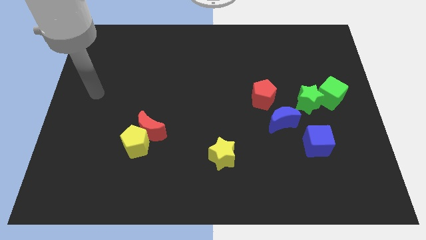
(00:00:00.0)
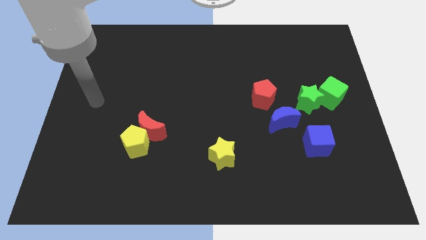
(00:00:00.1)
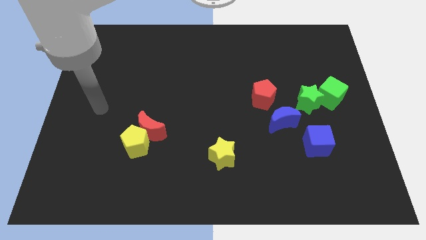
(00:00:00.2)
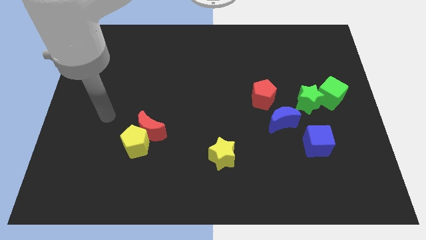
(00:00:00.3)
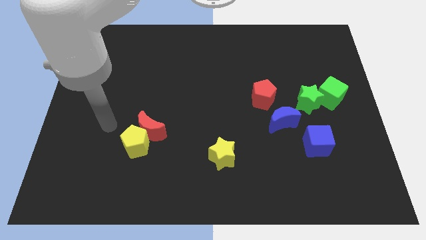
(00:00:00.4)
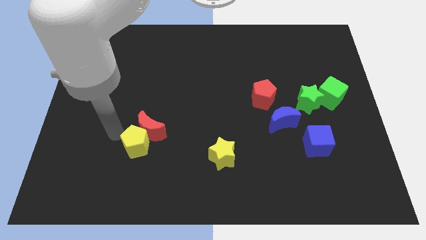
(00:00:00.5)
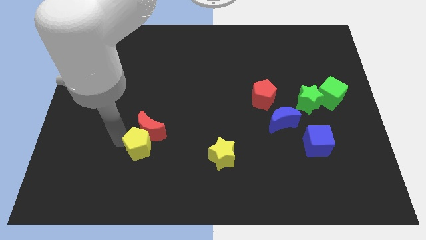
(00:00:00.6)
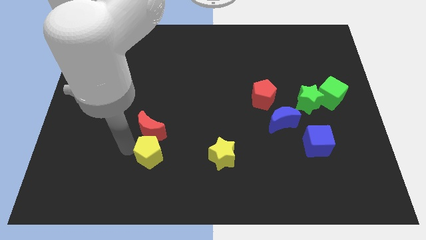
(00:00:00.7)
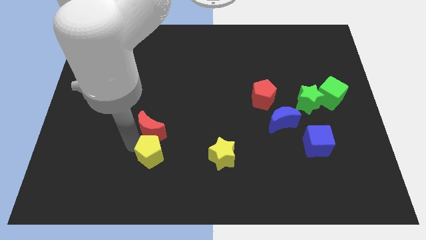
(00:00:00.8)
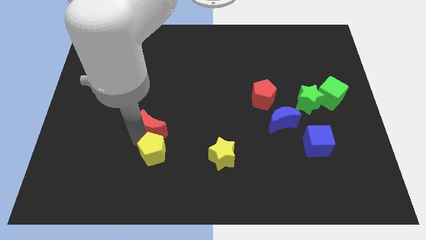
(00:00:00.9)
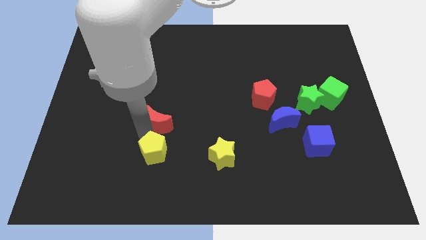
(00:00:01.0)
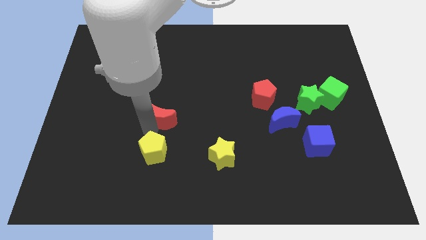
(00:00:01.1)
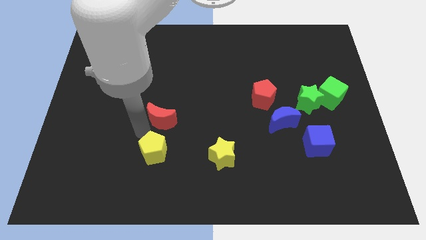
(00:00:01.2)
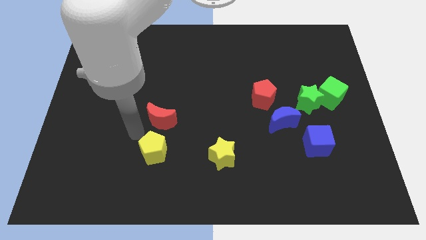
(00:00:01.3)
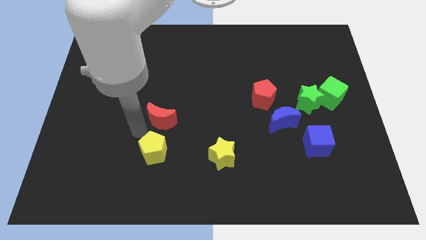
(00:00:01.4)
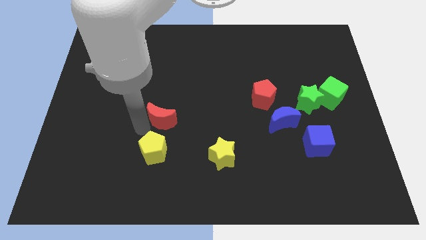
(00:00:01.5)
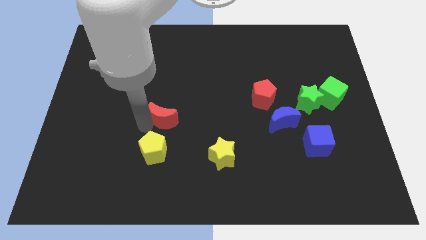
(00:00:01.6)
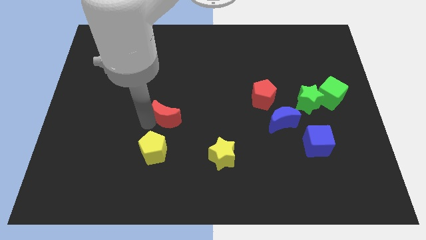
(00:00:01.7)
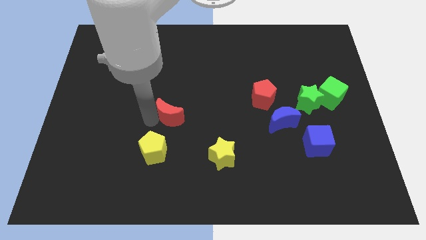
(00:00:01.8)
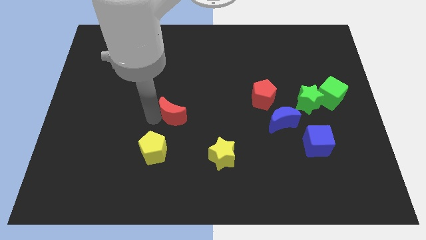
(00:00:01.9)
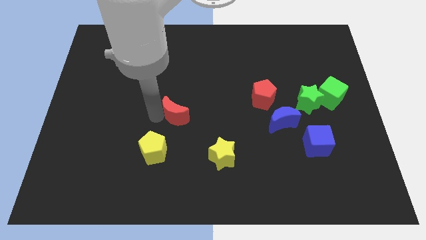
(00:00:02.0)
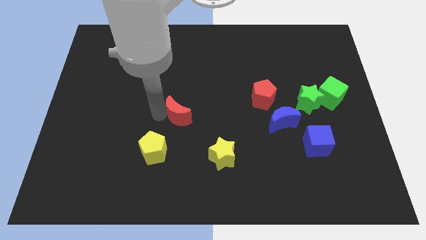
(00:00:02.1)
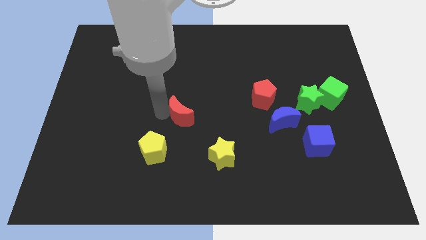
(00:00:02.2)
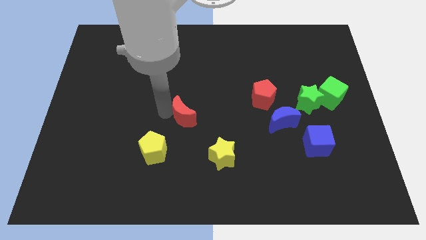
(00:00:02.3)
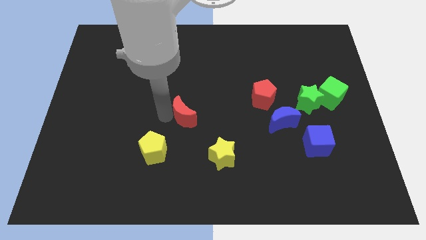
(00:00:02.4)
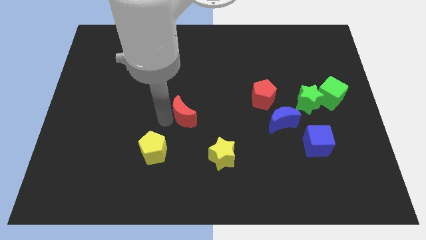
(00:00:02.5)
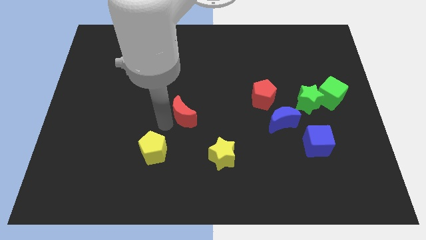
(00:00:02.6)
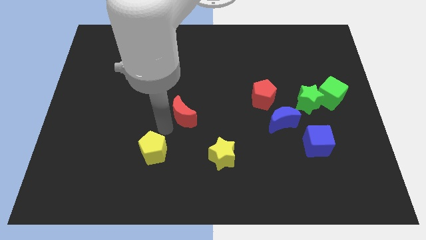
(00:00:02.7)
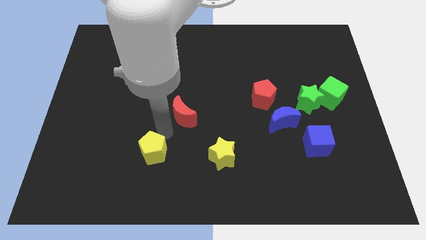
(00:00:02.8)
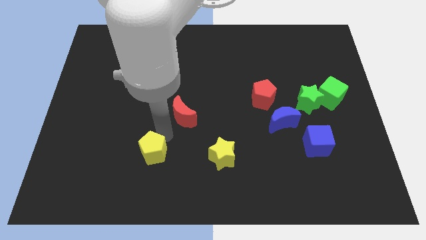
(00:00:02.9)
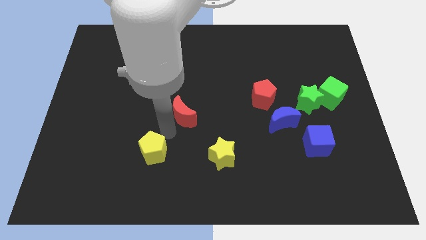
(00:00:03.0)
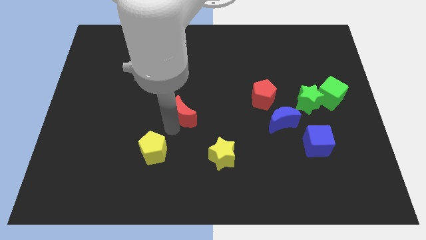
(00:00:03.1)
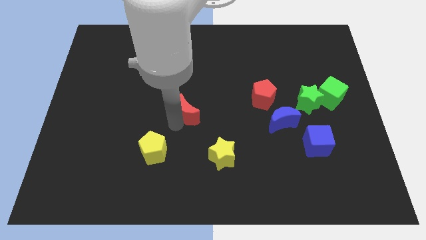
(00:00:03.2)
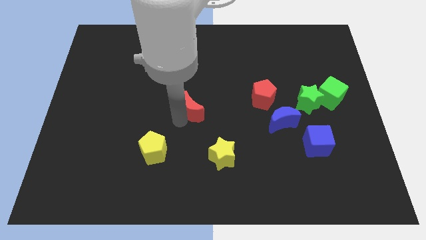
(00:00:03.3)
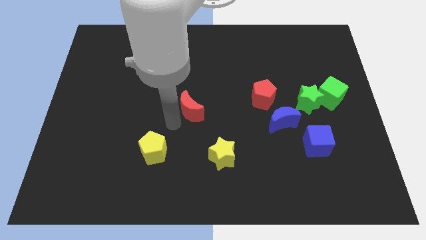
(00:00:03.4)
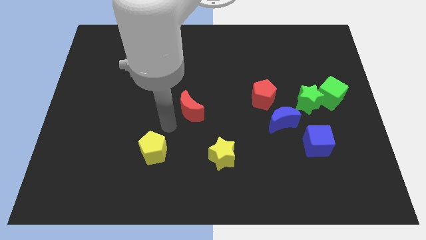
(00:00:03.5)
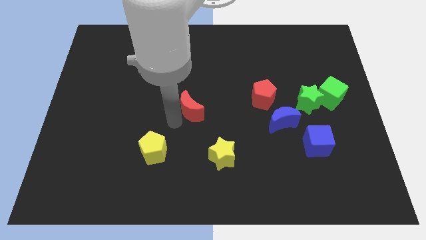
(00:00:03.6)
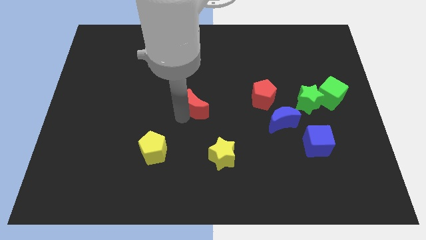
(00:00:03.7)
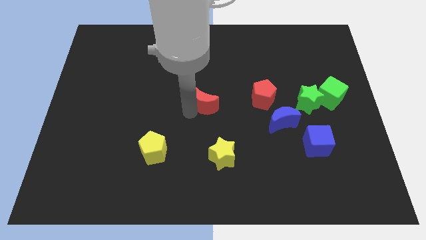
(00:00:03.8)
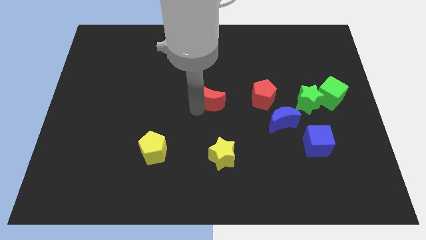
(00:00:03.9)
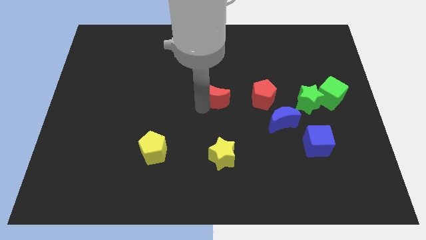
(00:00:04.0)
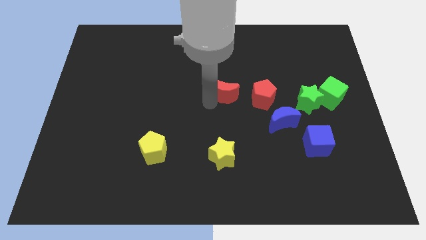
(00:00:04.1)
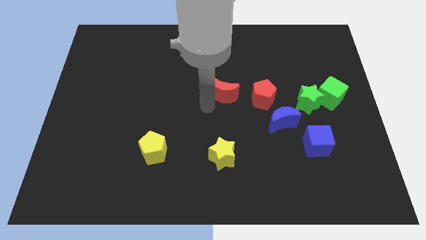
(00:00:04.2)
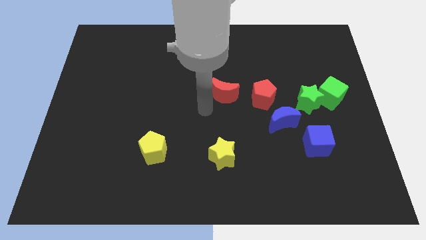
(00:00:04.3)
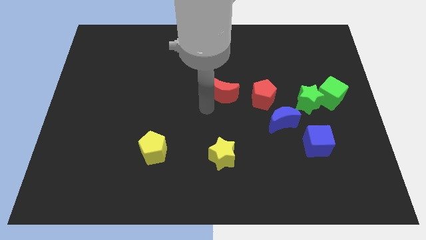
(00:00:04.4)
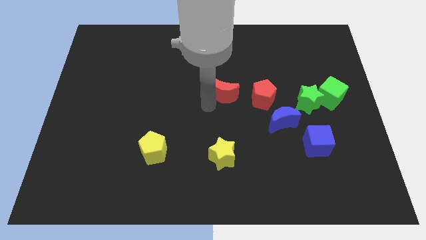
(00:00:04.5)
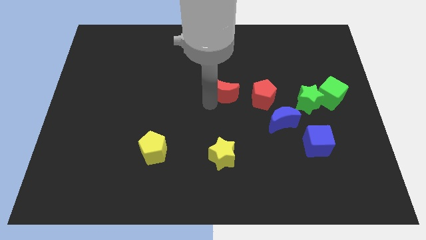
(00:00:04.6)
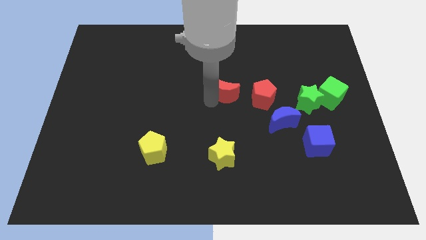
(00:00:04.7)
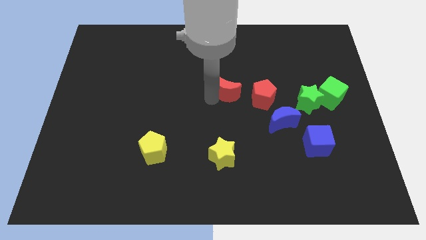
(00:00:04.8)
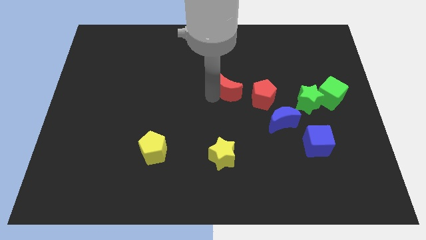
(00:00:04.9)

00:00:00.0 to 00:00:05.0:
slide the red moon diagonally up and to the left of the red pentagon

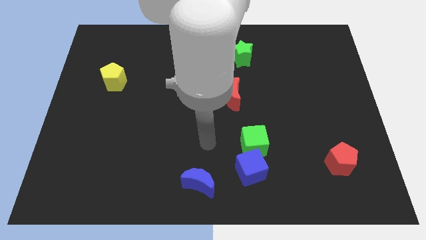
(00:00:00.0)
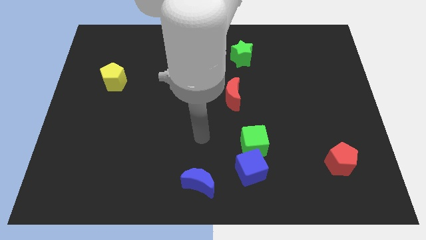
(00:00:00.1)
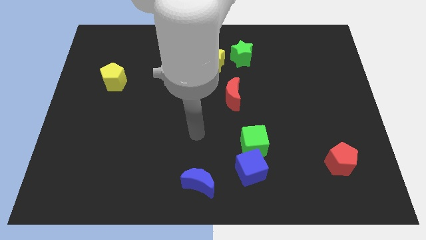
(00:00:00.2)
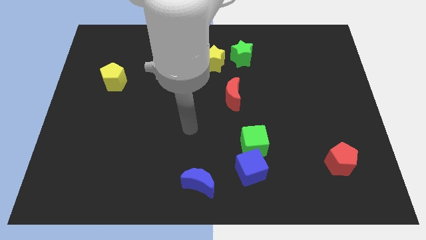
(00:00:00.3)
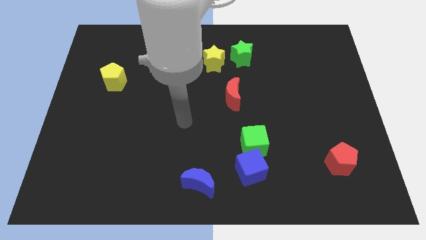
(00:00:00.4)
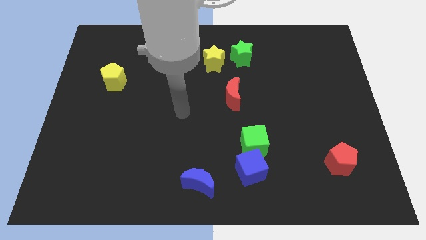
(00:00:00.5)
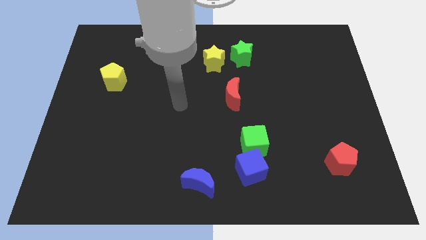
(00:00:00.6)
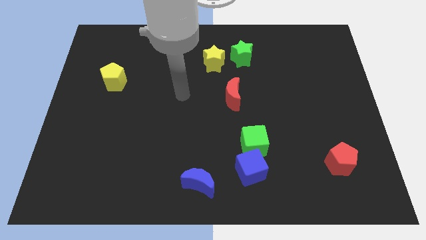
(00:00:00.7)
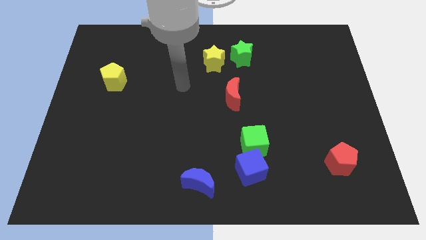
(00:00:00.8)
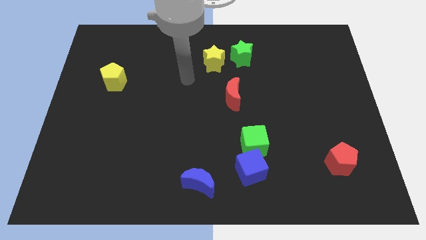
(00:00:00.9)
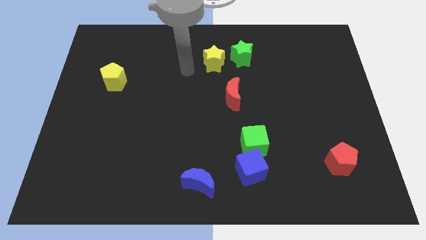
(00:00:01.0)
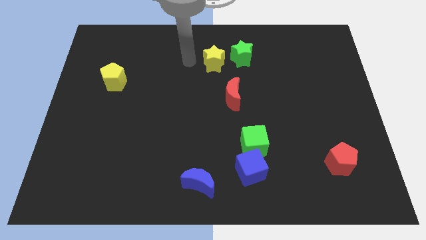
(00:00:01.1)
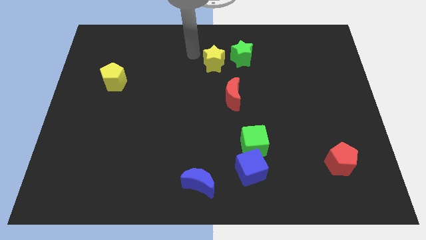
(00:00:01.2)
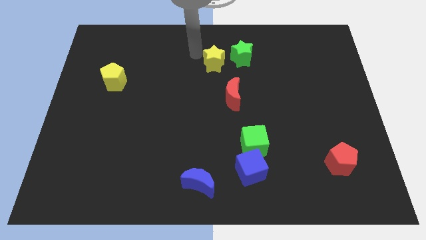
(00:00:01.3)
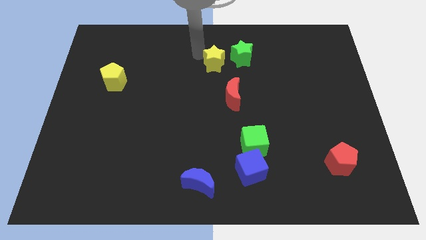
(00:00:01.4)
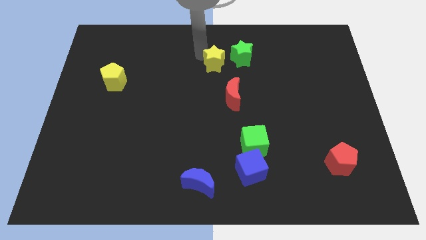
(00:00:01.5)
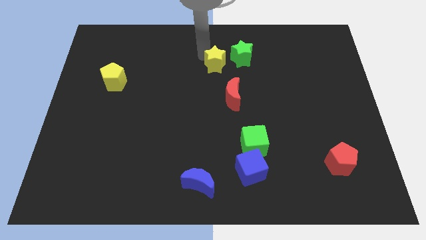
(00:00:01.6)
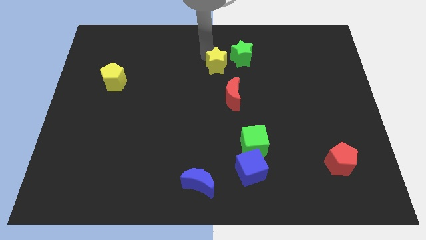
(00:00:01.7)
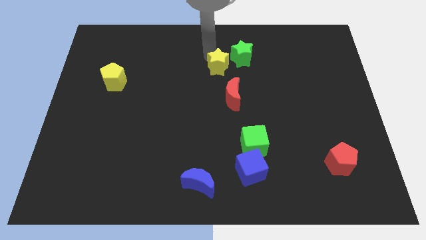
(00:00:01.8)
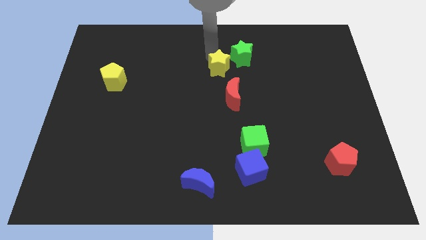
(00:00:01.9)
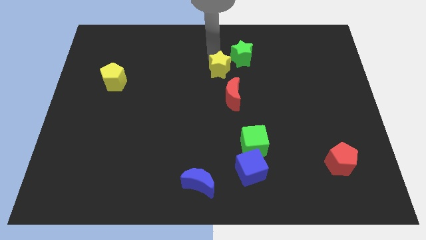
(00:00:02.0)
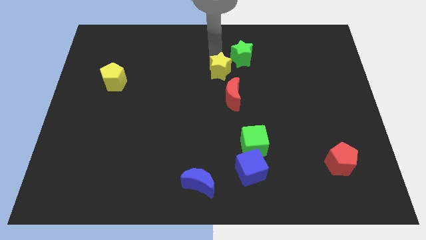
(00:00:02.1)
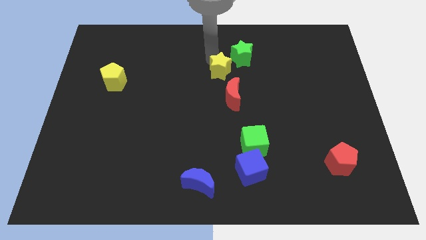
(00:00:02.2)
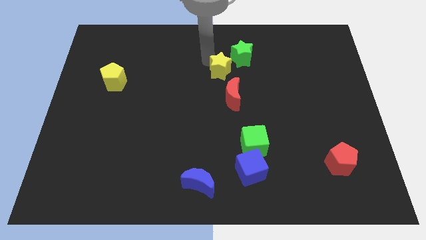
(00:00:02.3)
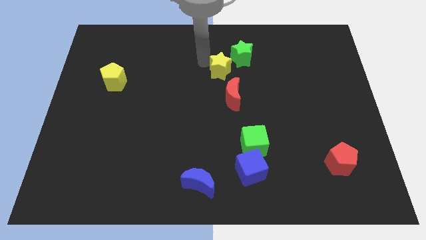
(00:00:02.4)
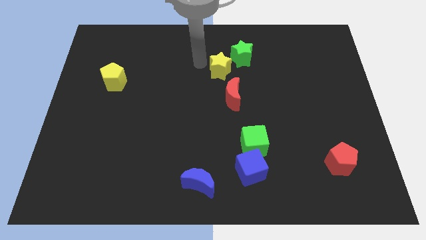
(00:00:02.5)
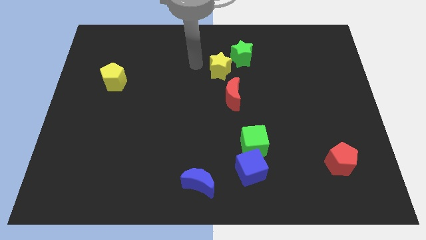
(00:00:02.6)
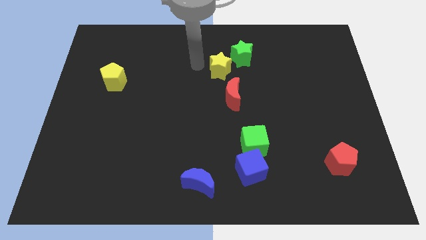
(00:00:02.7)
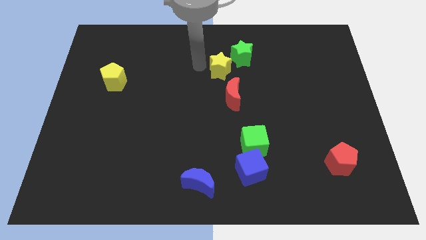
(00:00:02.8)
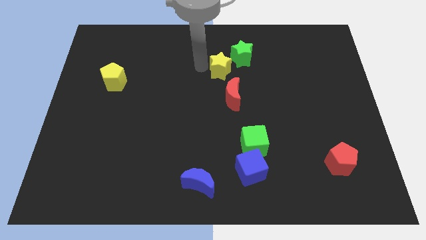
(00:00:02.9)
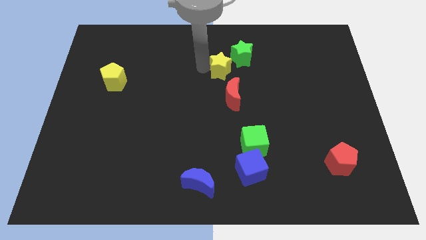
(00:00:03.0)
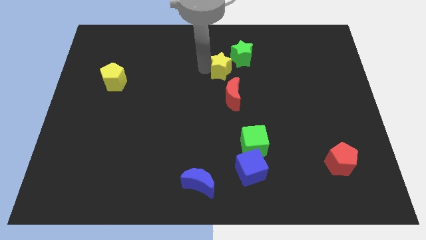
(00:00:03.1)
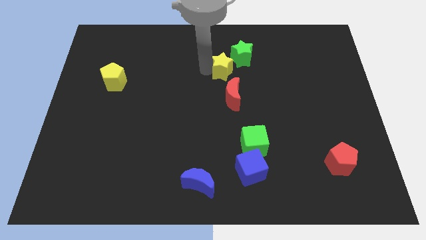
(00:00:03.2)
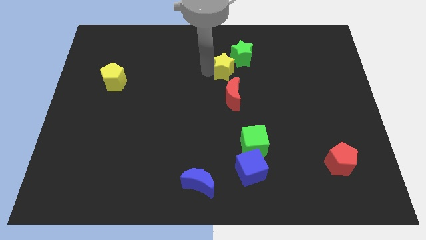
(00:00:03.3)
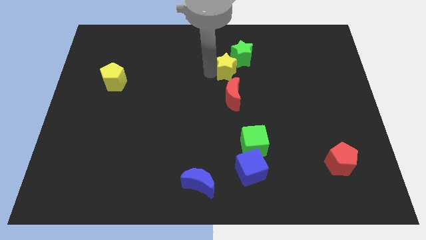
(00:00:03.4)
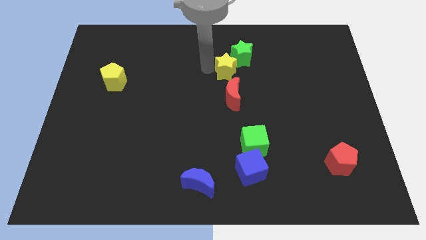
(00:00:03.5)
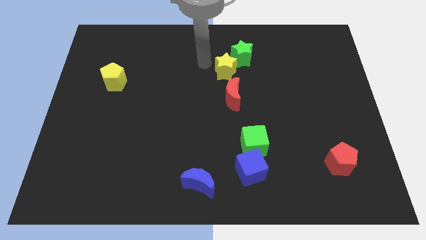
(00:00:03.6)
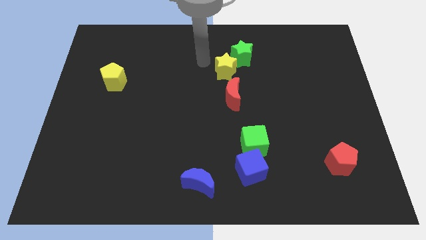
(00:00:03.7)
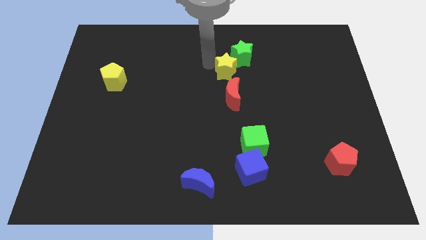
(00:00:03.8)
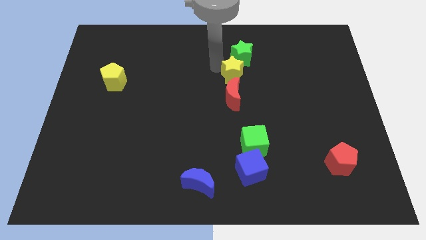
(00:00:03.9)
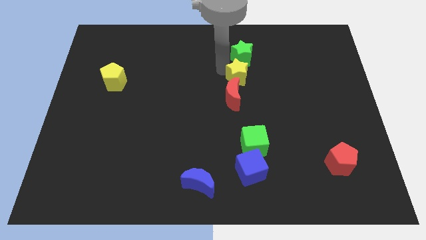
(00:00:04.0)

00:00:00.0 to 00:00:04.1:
slide the yellow star diagonally up and to the right of the red moon
